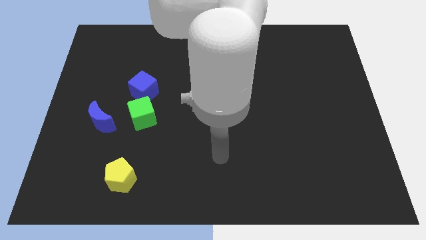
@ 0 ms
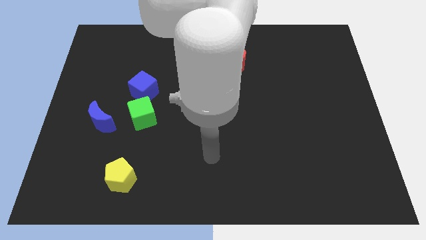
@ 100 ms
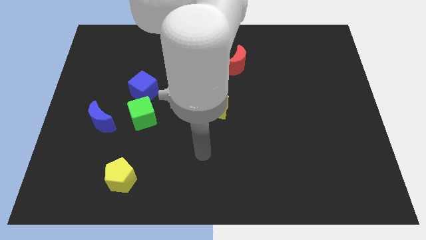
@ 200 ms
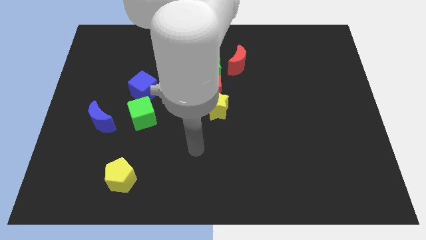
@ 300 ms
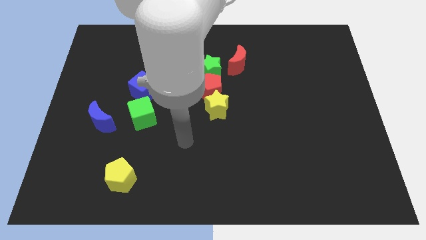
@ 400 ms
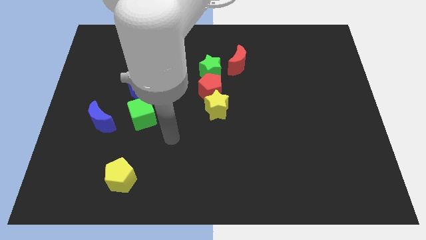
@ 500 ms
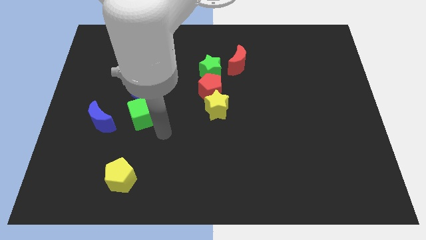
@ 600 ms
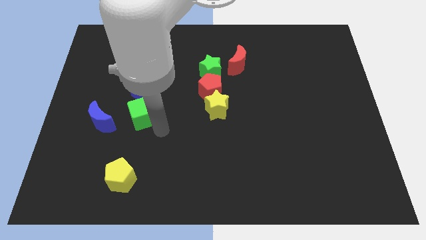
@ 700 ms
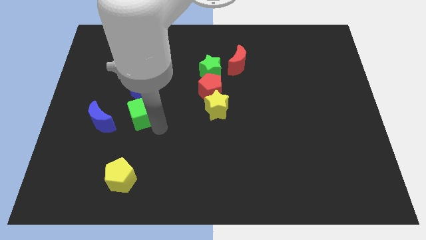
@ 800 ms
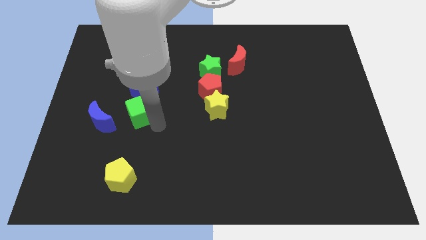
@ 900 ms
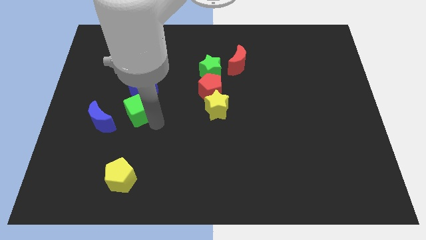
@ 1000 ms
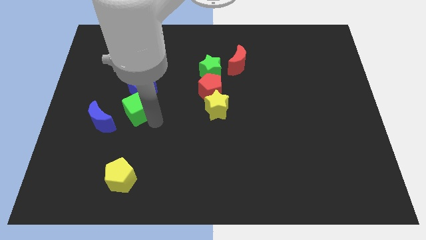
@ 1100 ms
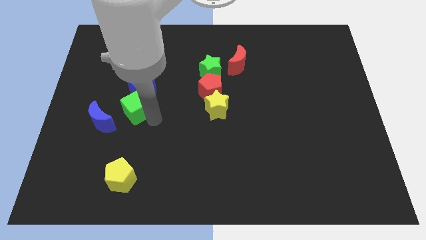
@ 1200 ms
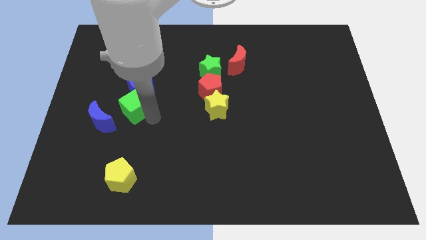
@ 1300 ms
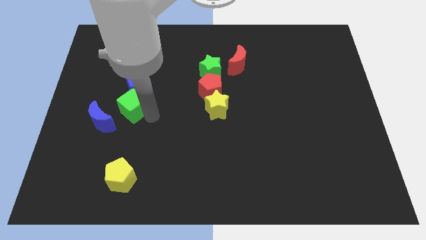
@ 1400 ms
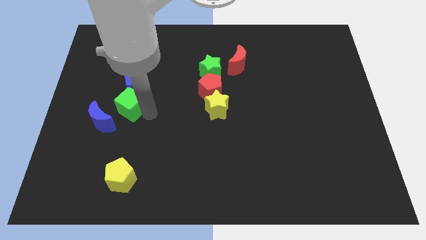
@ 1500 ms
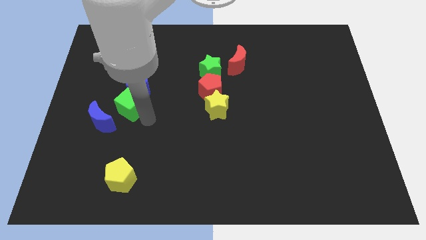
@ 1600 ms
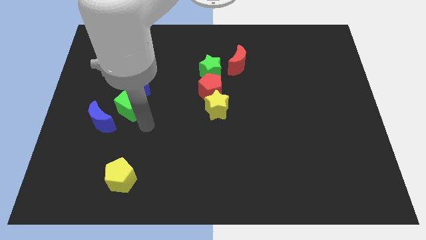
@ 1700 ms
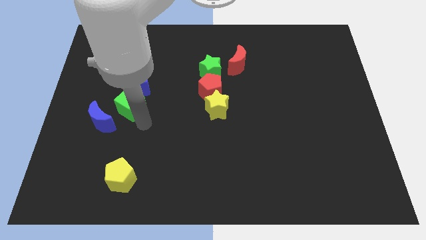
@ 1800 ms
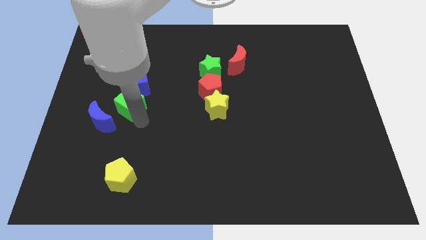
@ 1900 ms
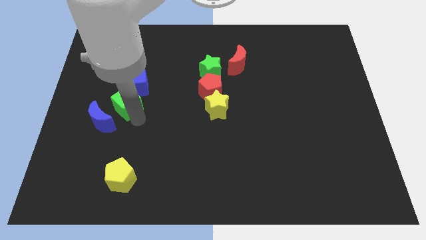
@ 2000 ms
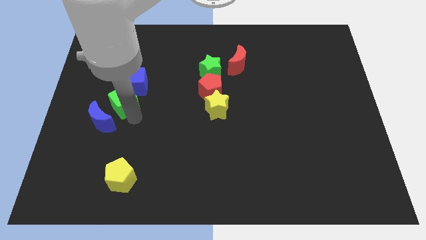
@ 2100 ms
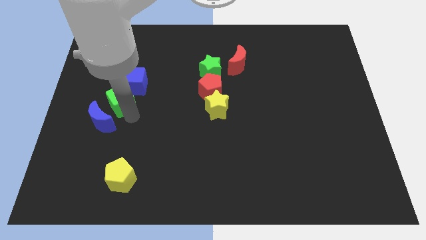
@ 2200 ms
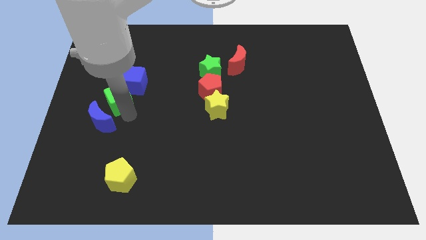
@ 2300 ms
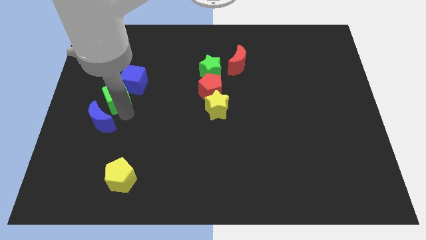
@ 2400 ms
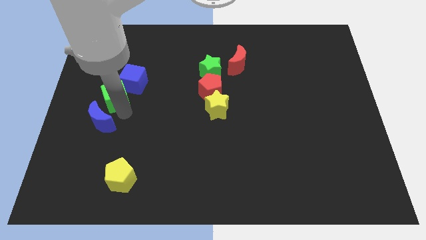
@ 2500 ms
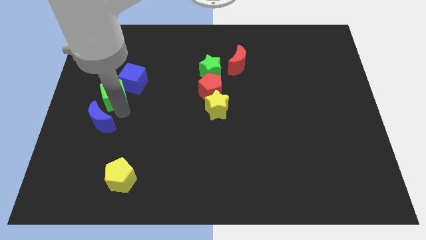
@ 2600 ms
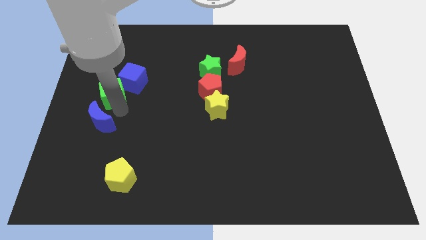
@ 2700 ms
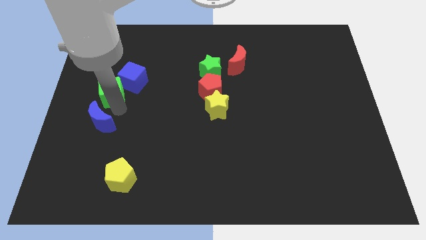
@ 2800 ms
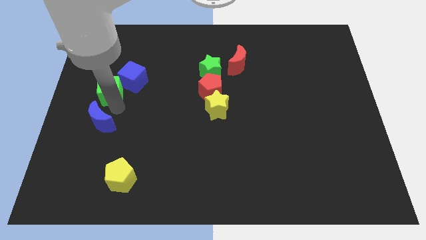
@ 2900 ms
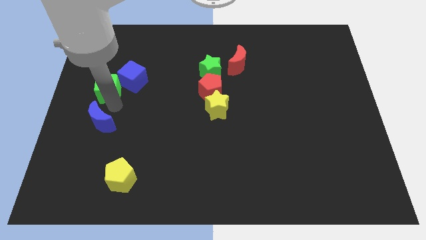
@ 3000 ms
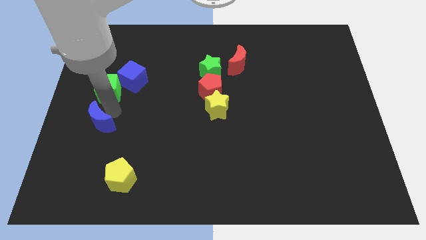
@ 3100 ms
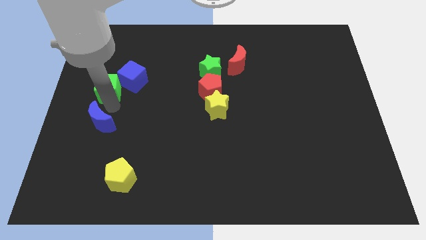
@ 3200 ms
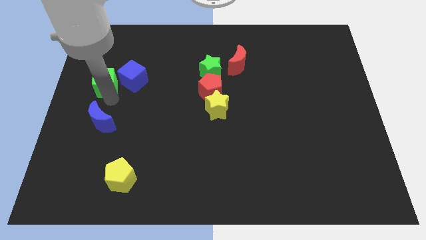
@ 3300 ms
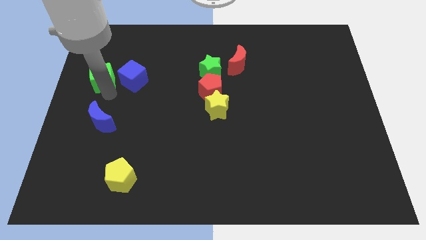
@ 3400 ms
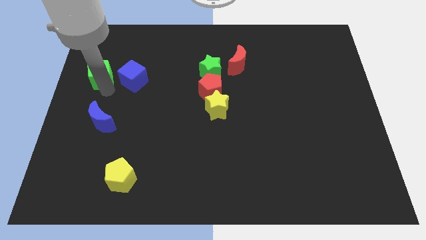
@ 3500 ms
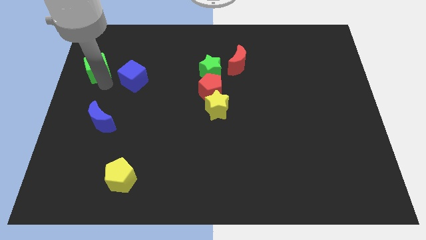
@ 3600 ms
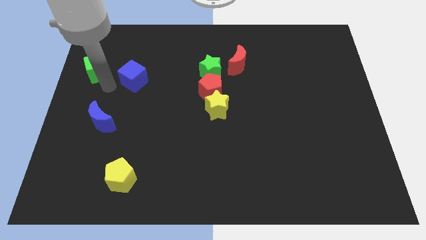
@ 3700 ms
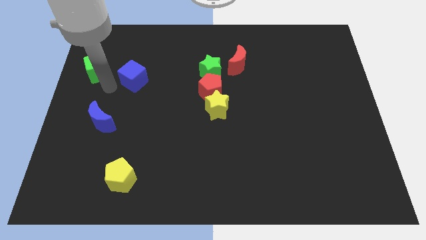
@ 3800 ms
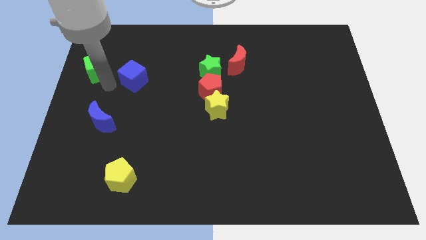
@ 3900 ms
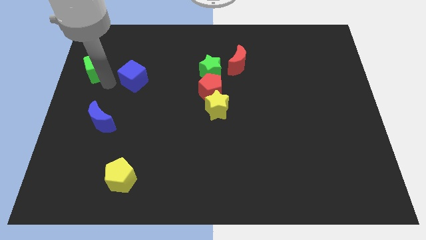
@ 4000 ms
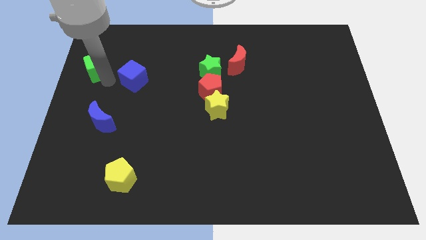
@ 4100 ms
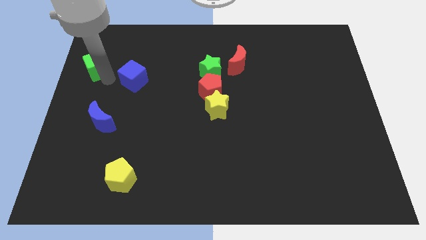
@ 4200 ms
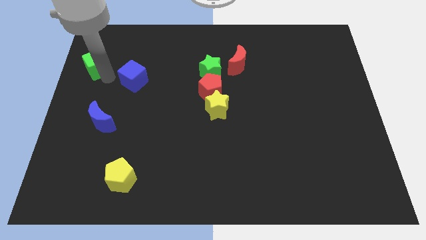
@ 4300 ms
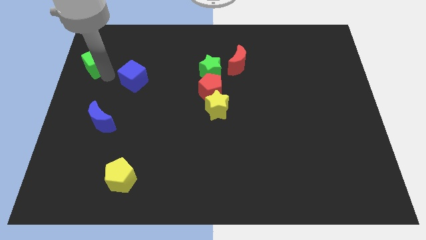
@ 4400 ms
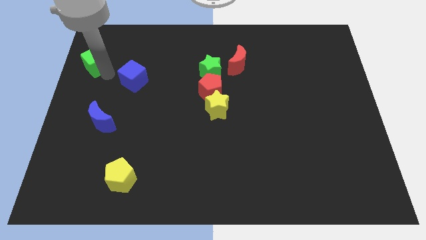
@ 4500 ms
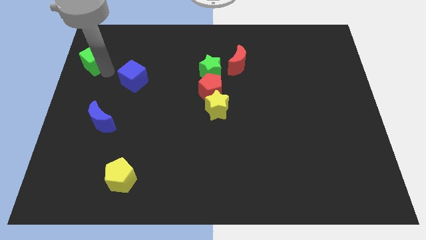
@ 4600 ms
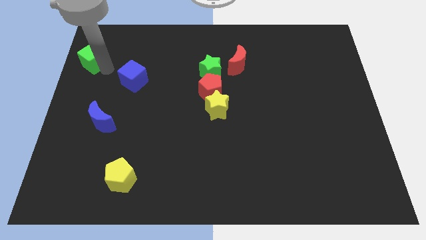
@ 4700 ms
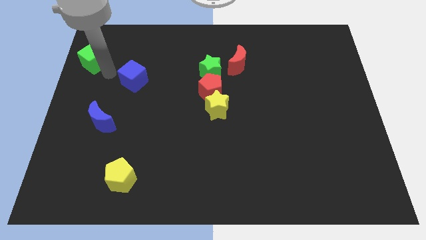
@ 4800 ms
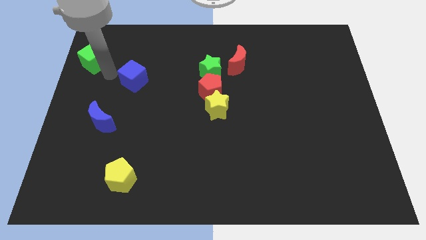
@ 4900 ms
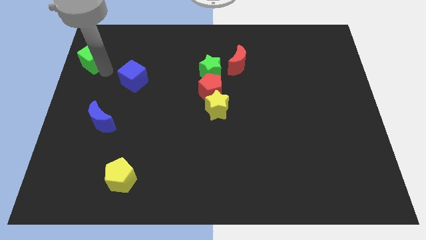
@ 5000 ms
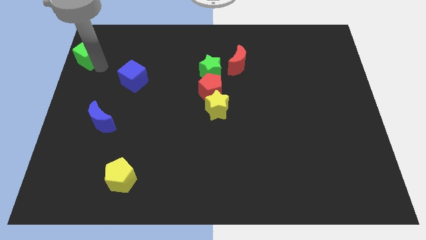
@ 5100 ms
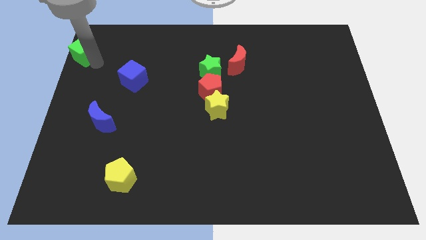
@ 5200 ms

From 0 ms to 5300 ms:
slide the green cube to the top left
